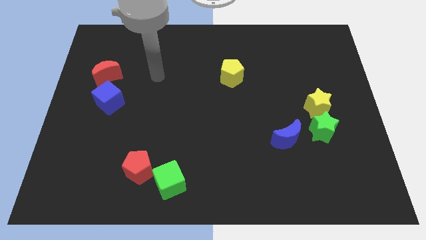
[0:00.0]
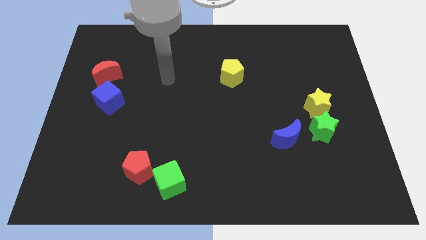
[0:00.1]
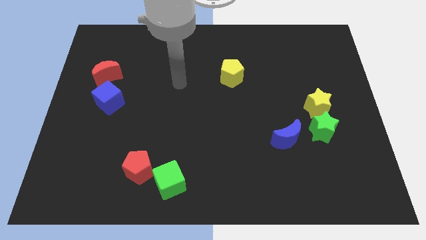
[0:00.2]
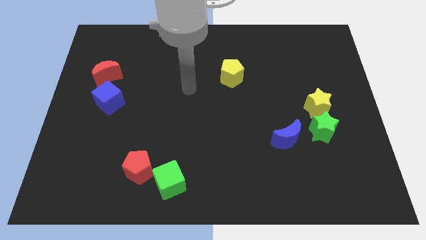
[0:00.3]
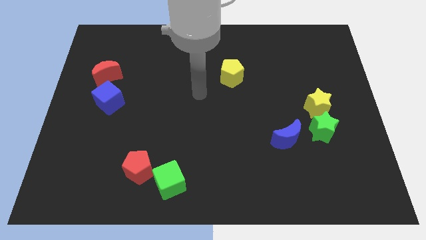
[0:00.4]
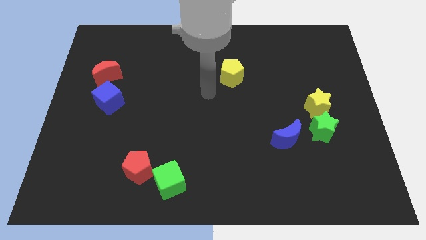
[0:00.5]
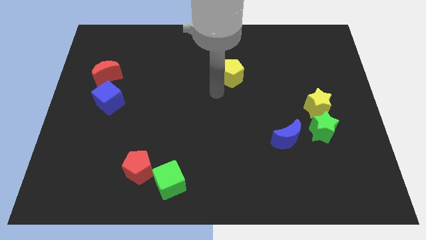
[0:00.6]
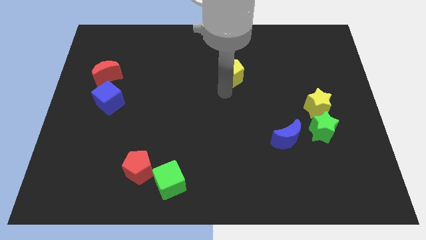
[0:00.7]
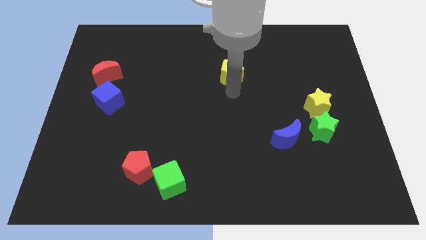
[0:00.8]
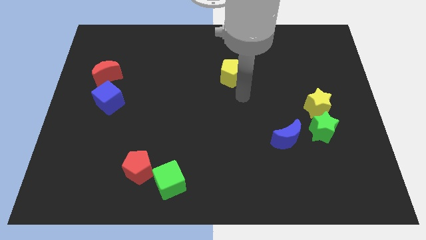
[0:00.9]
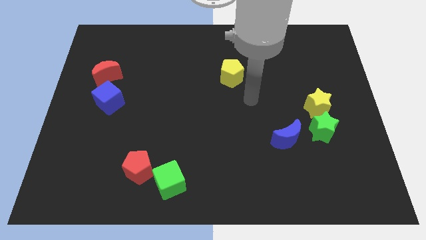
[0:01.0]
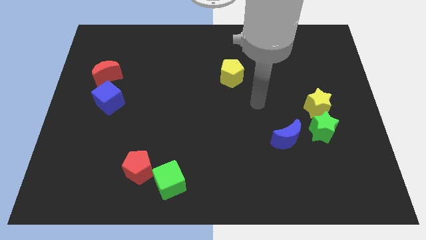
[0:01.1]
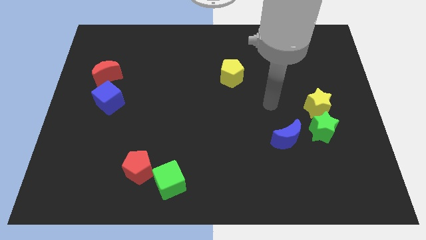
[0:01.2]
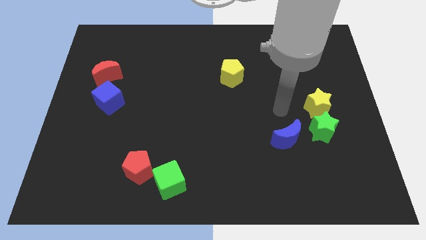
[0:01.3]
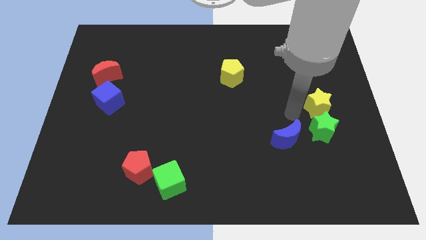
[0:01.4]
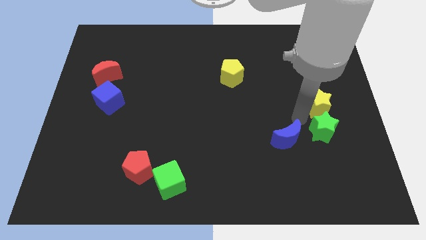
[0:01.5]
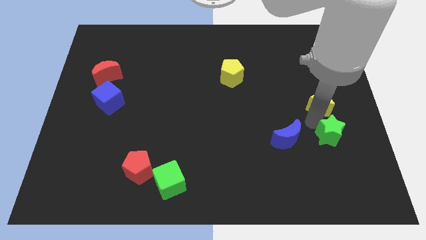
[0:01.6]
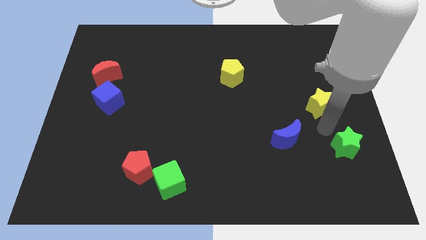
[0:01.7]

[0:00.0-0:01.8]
separate the yellow star from the green star

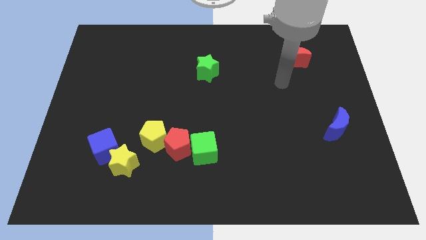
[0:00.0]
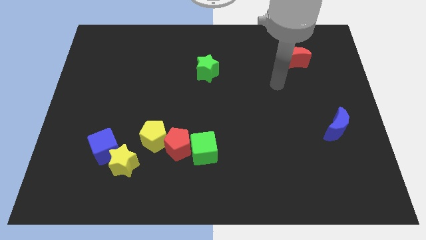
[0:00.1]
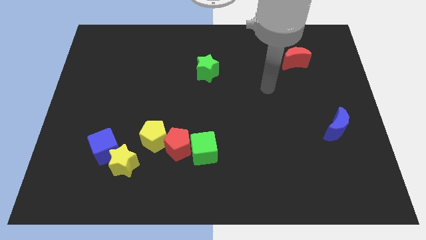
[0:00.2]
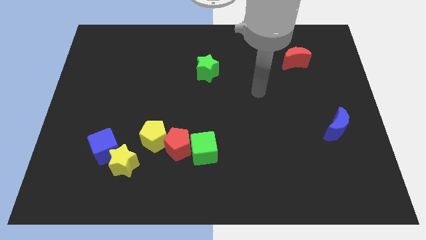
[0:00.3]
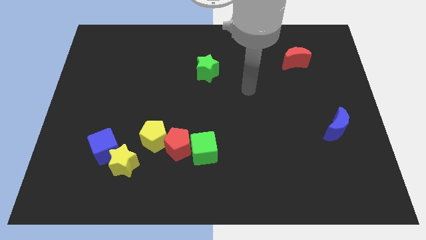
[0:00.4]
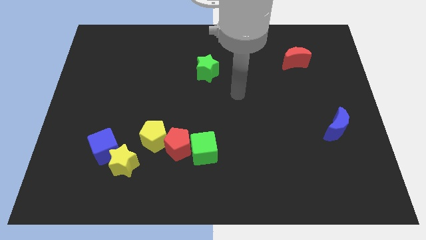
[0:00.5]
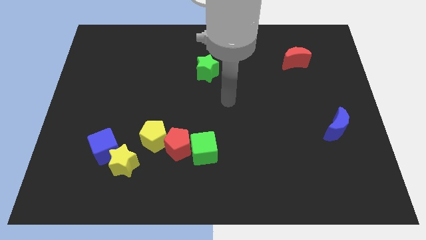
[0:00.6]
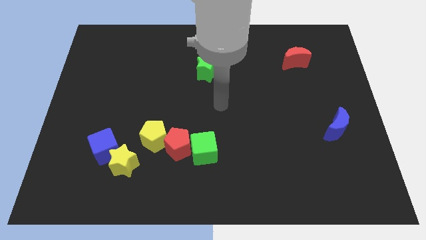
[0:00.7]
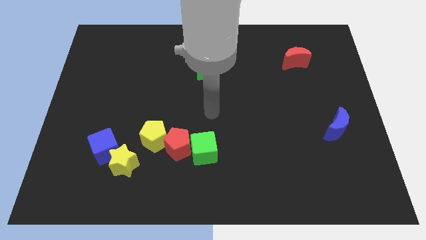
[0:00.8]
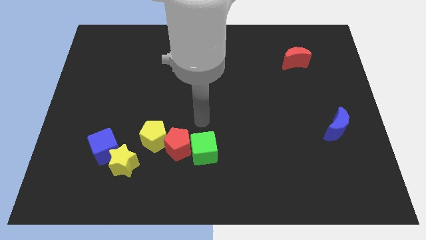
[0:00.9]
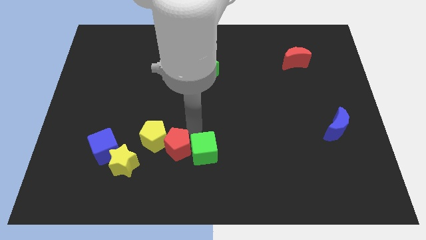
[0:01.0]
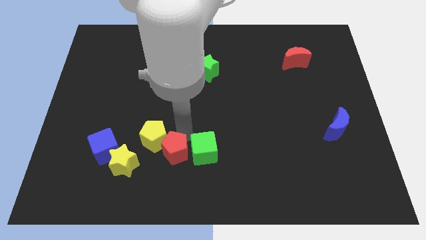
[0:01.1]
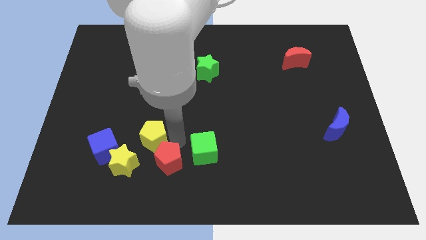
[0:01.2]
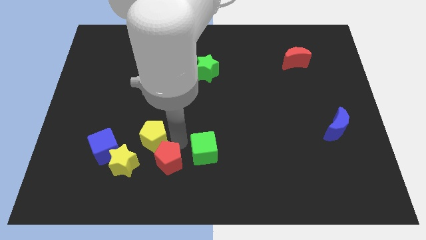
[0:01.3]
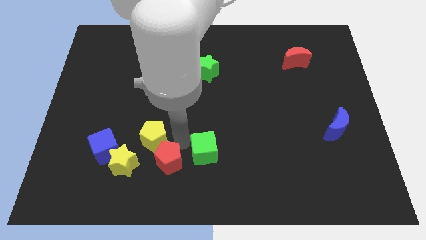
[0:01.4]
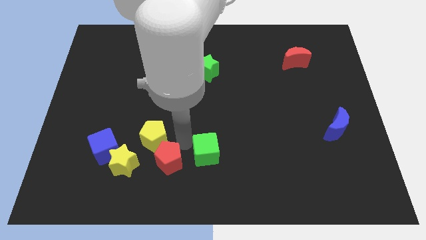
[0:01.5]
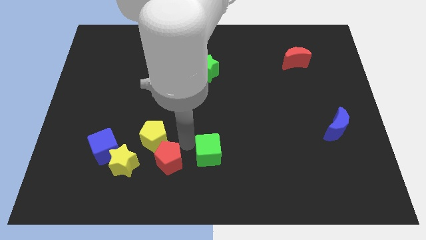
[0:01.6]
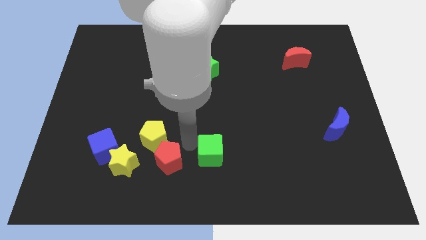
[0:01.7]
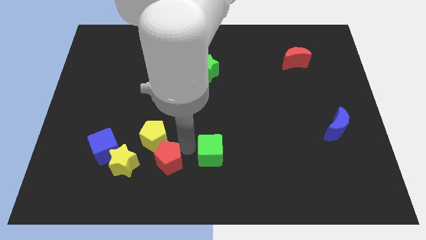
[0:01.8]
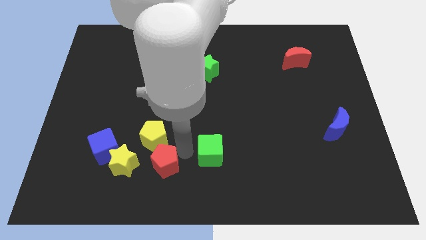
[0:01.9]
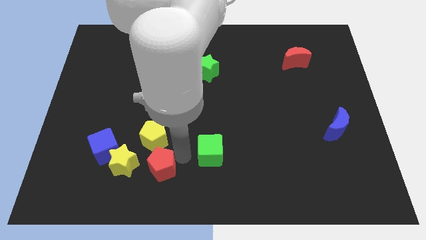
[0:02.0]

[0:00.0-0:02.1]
move the green cube away from the red pentagon

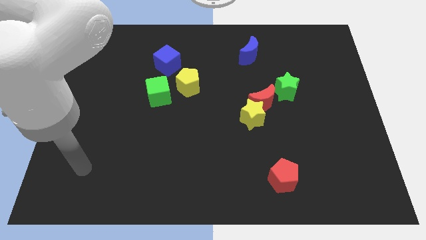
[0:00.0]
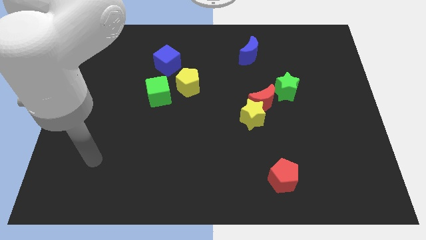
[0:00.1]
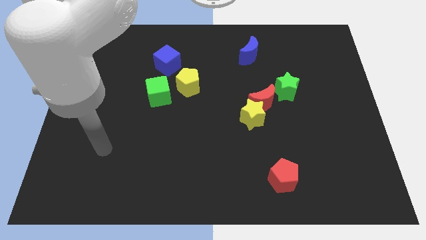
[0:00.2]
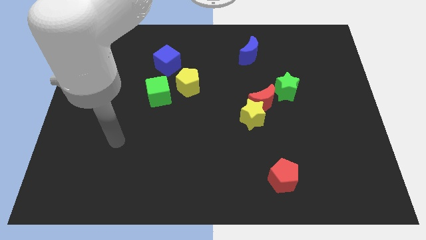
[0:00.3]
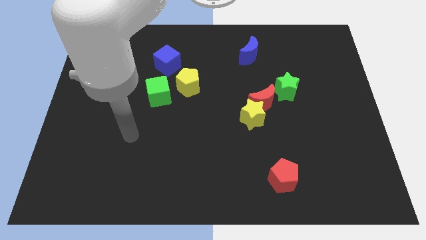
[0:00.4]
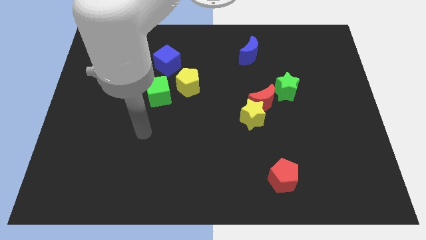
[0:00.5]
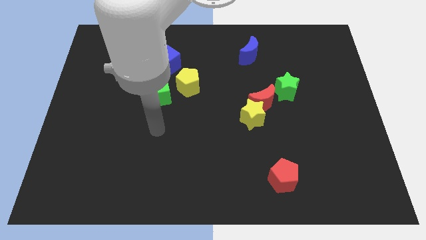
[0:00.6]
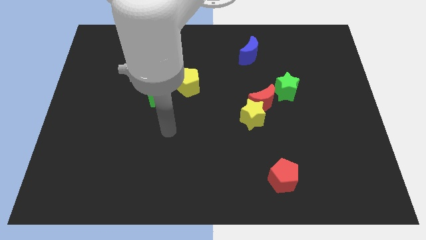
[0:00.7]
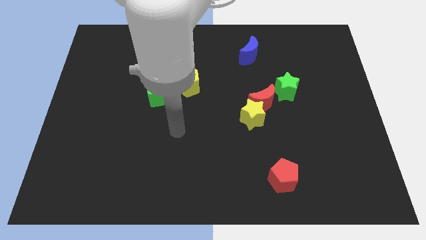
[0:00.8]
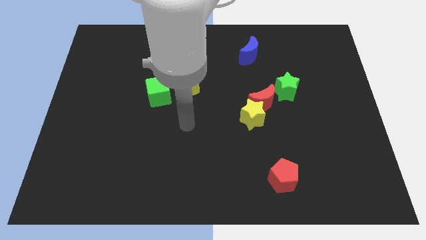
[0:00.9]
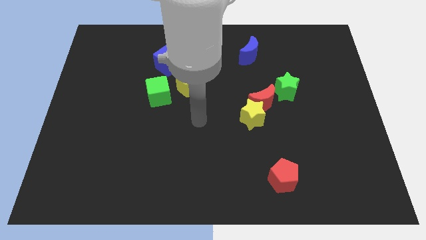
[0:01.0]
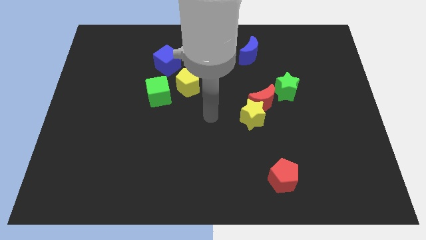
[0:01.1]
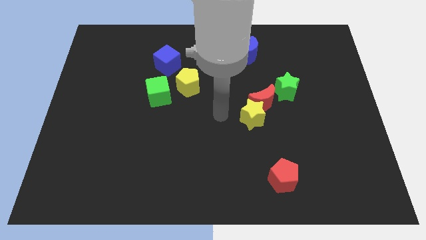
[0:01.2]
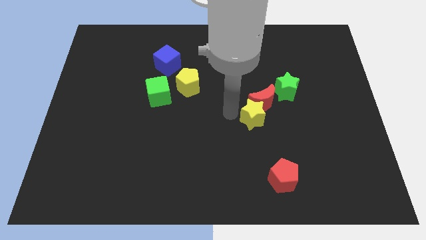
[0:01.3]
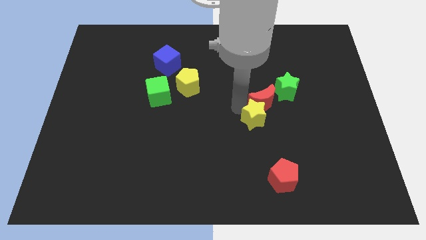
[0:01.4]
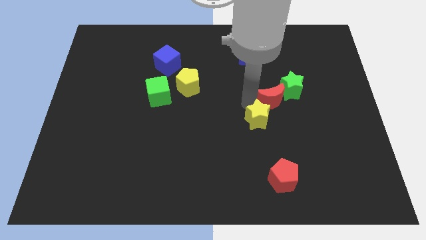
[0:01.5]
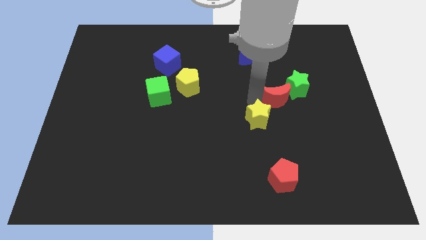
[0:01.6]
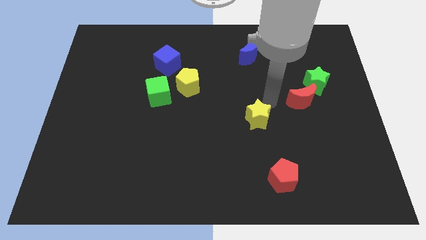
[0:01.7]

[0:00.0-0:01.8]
pull the yellow star apart from the red moon

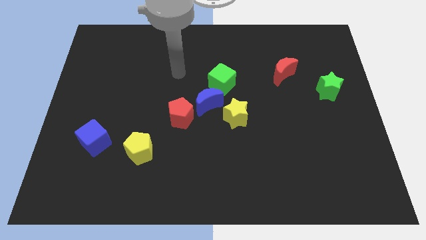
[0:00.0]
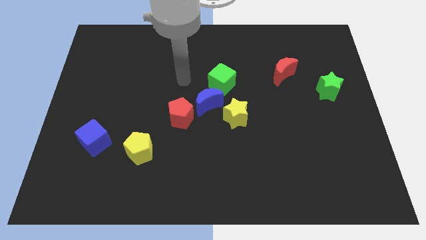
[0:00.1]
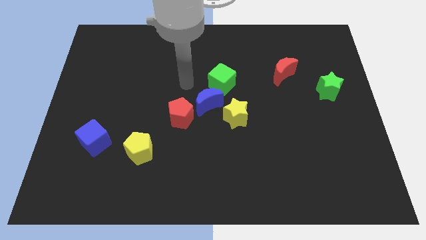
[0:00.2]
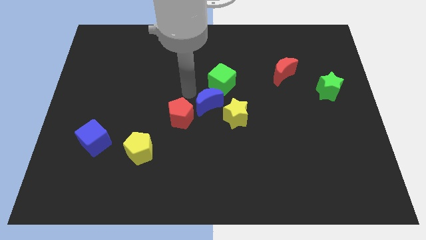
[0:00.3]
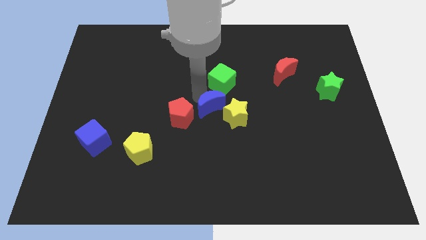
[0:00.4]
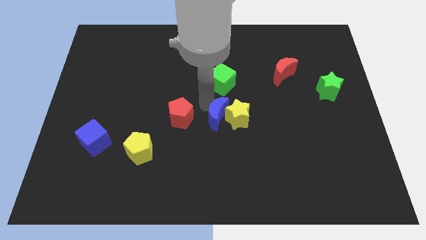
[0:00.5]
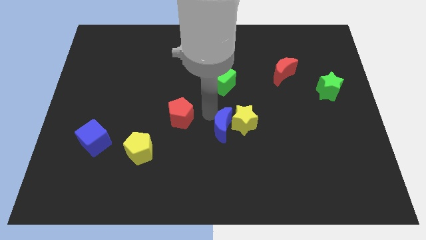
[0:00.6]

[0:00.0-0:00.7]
separate the red pentagon from the blue moon

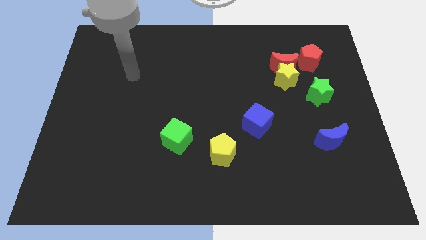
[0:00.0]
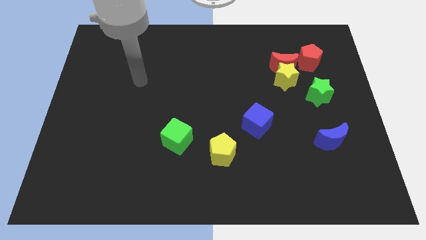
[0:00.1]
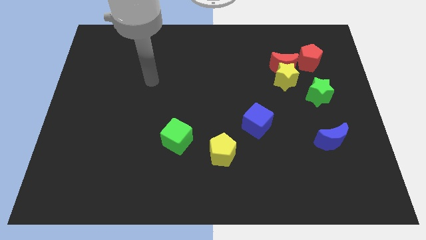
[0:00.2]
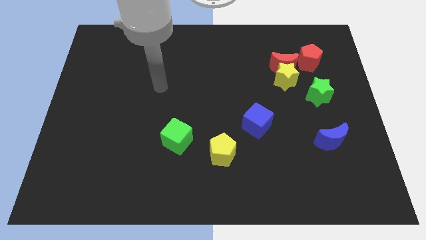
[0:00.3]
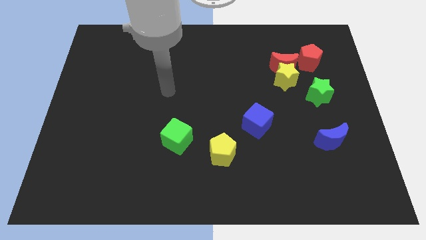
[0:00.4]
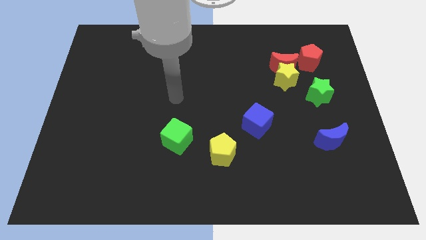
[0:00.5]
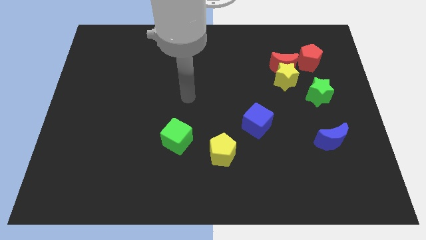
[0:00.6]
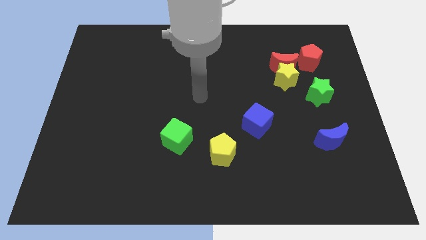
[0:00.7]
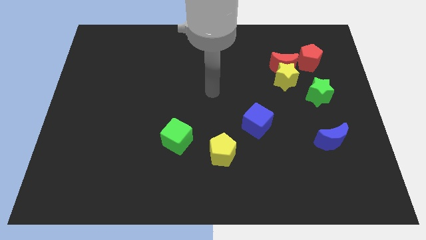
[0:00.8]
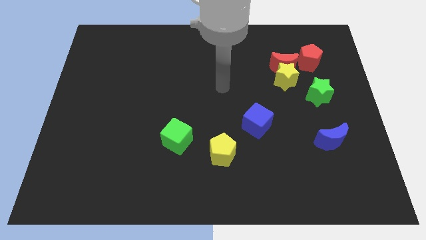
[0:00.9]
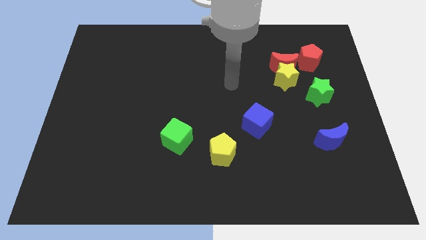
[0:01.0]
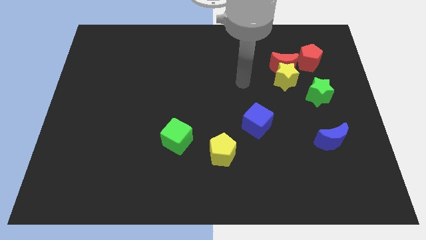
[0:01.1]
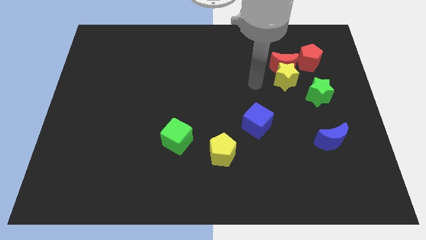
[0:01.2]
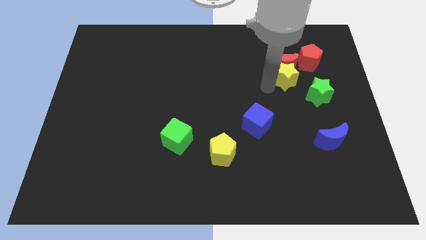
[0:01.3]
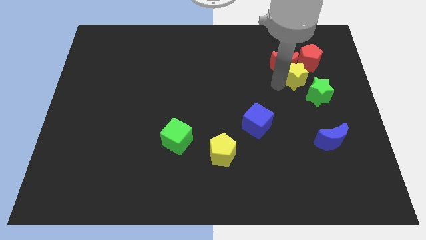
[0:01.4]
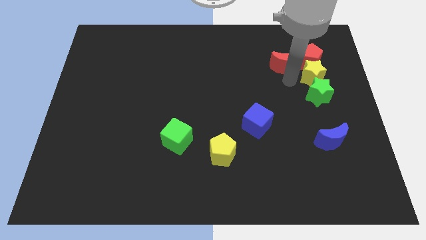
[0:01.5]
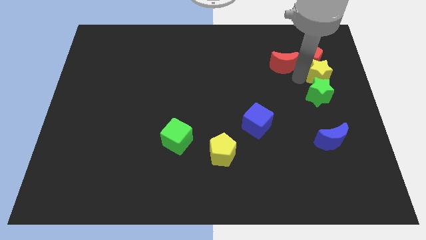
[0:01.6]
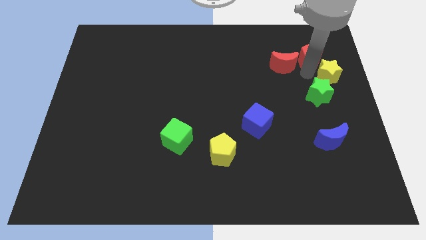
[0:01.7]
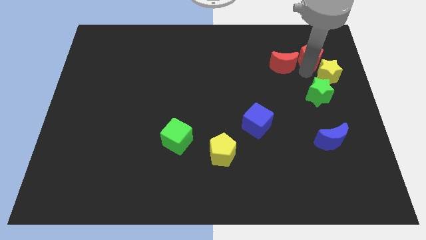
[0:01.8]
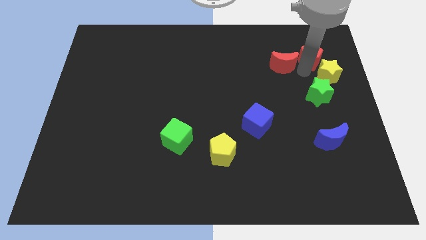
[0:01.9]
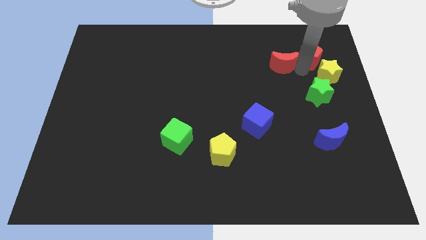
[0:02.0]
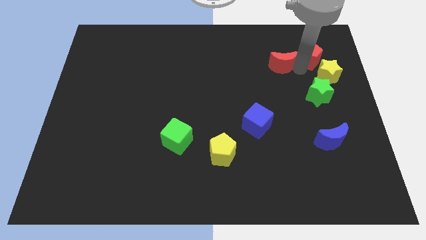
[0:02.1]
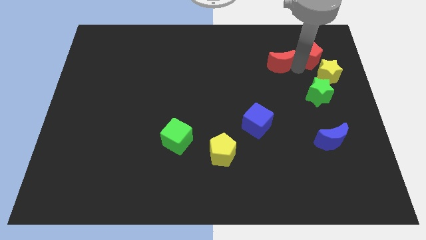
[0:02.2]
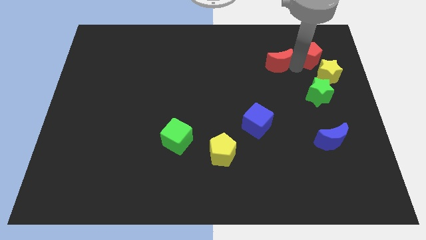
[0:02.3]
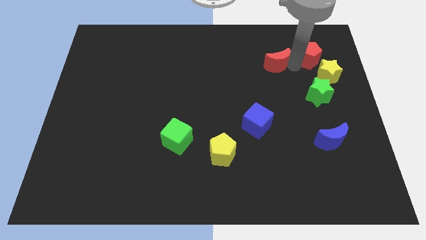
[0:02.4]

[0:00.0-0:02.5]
pull the red moon apart from the yellow star and red pentagon

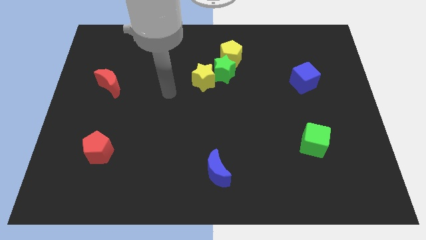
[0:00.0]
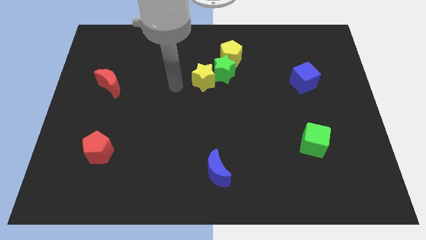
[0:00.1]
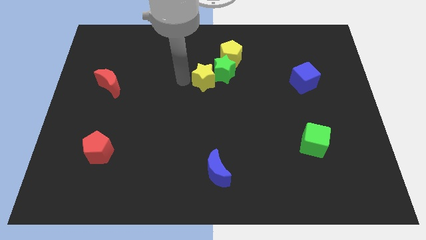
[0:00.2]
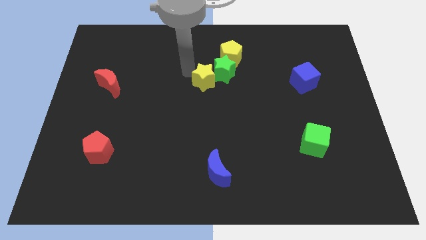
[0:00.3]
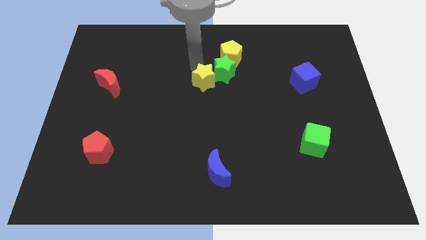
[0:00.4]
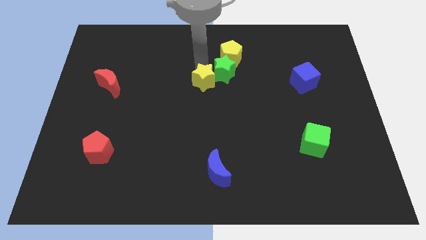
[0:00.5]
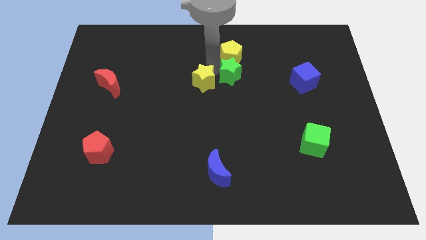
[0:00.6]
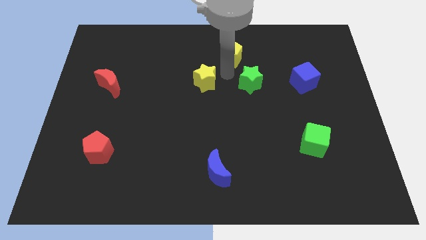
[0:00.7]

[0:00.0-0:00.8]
move the yellow star away from the green star
